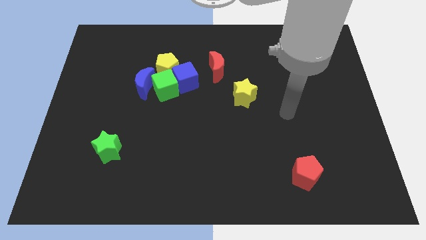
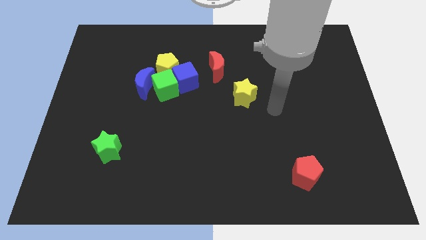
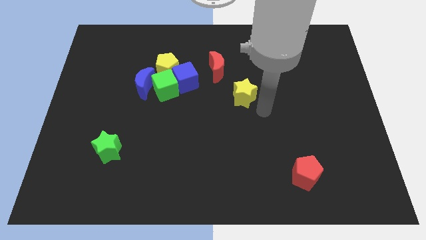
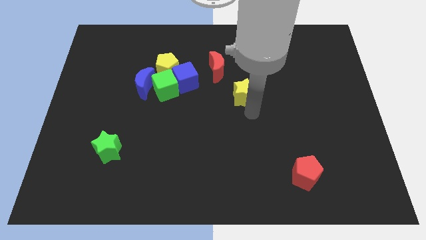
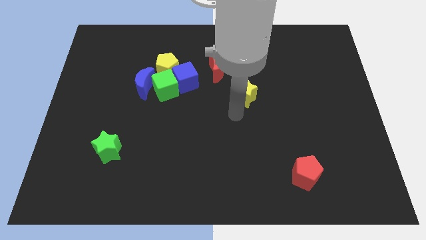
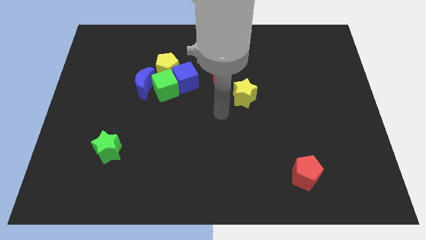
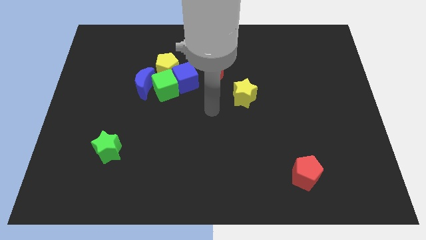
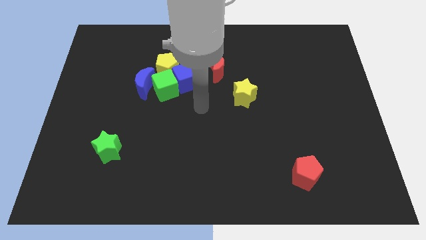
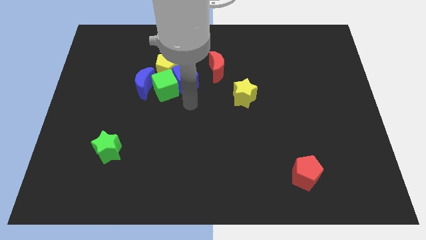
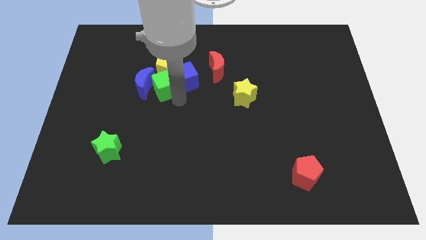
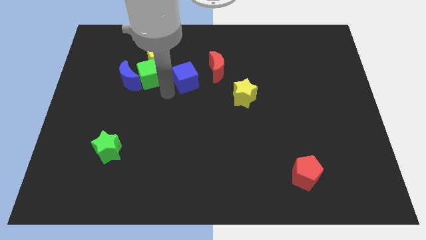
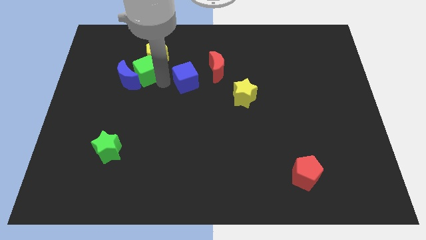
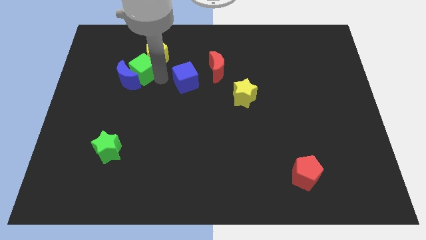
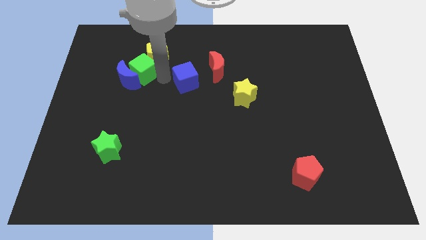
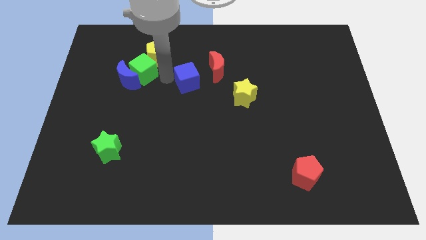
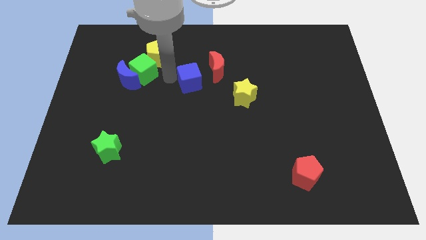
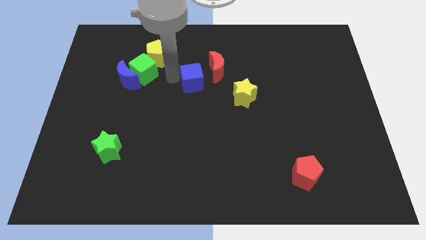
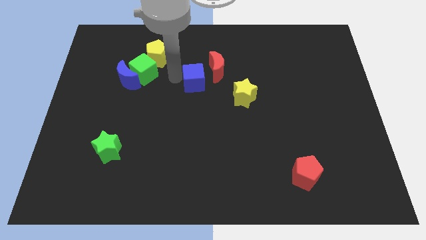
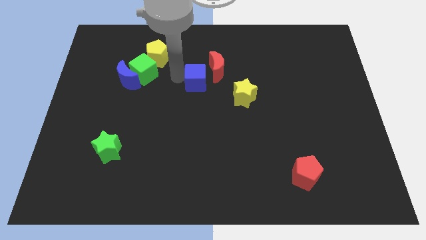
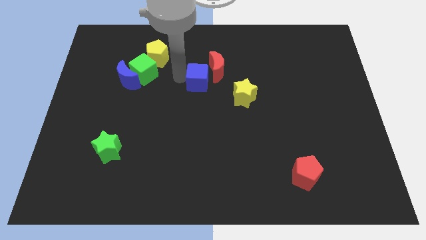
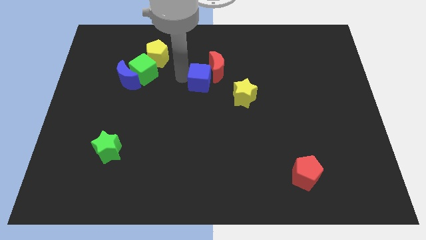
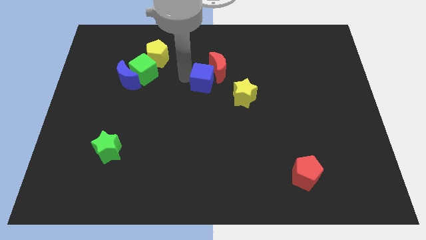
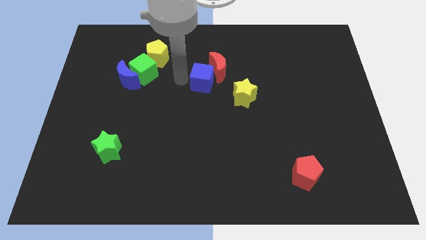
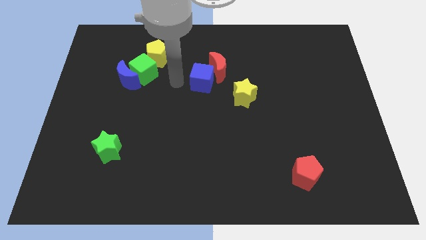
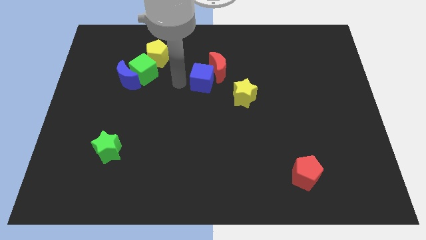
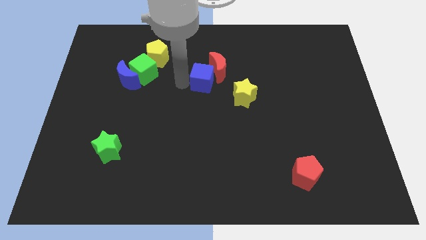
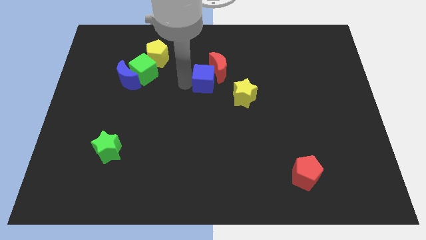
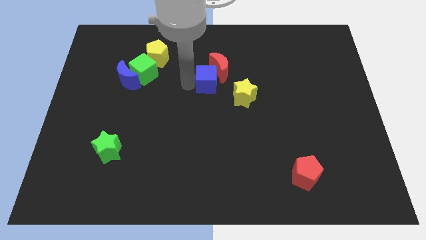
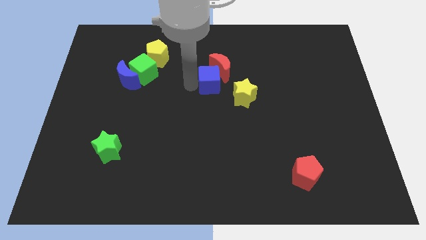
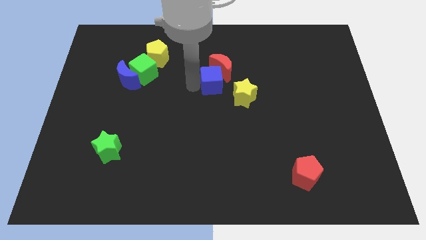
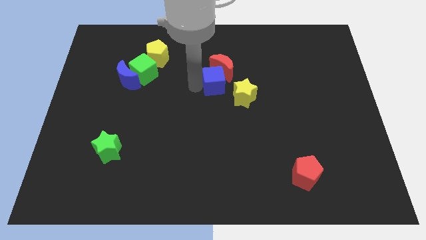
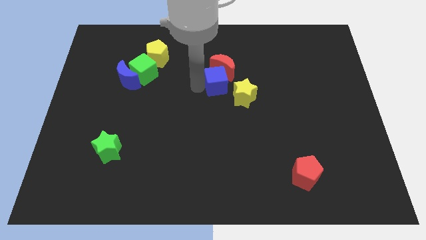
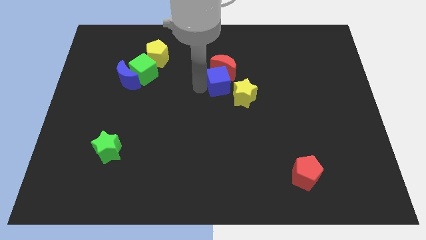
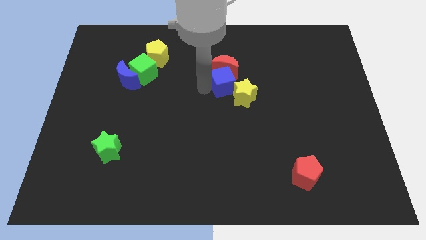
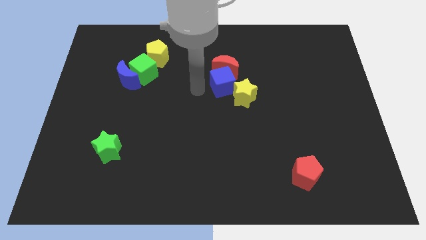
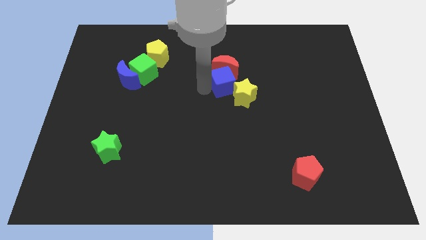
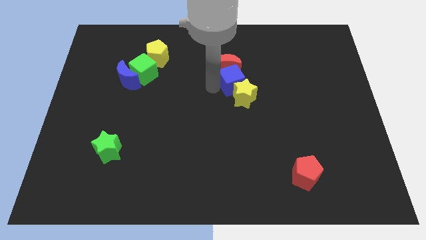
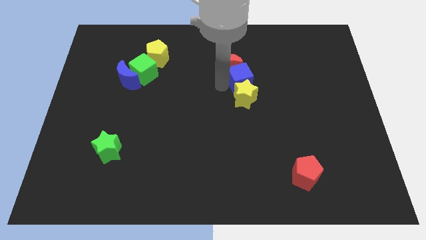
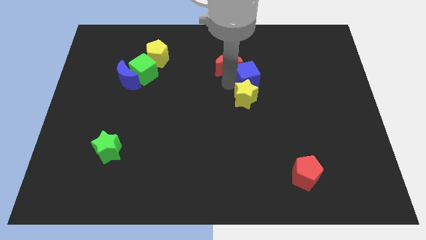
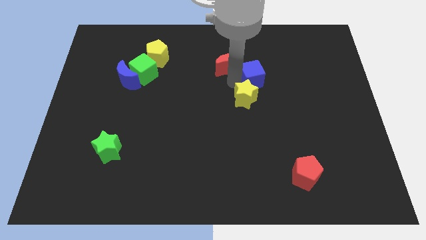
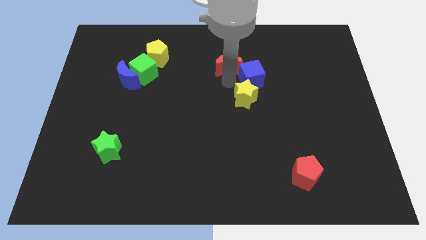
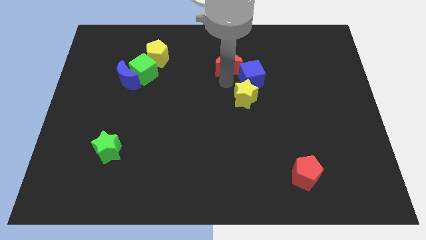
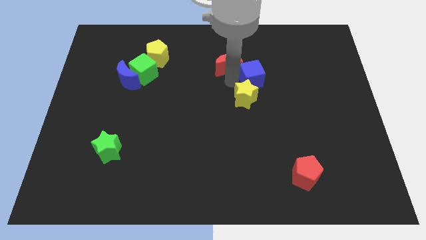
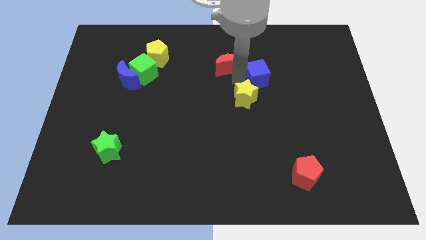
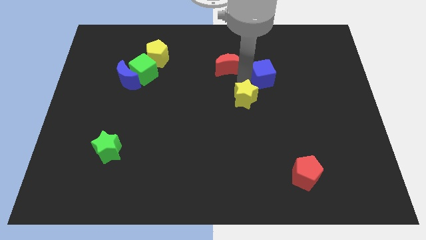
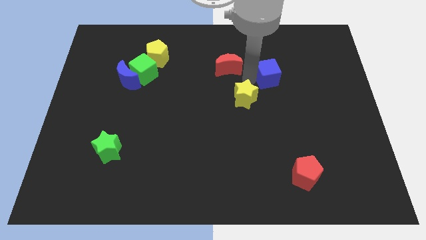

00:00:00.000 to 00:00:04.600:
move the blue cube to the right

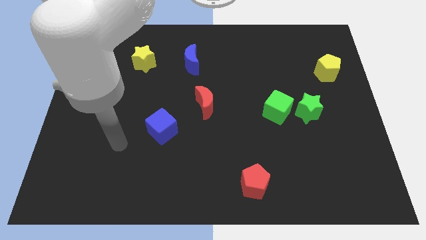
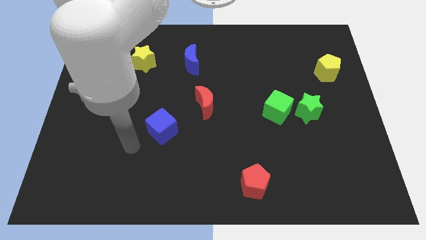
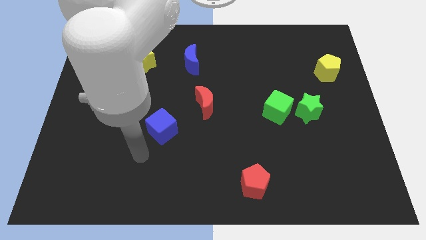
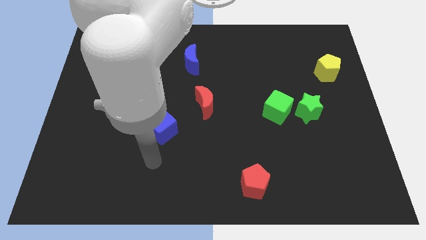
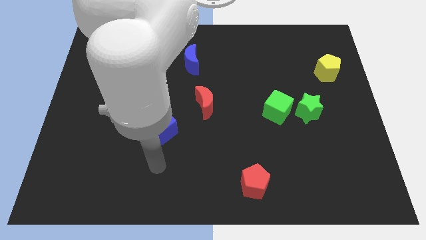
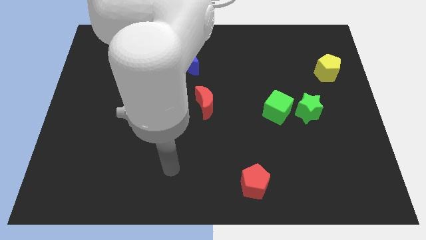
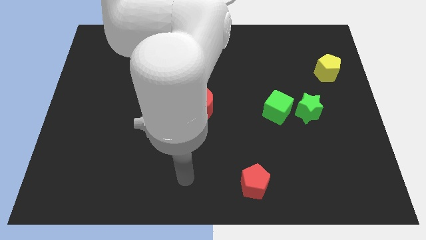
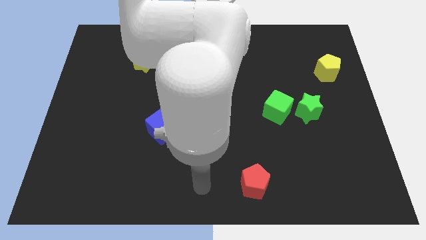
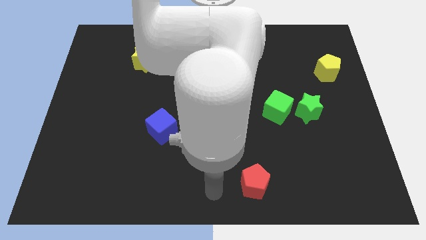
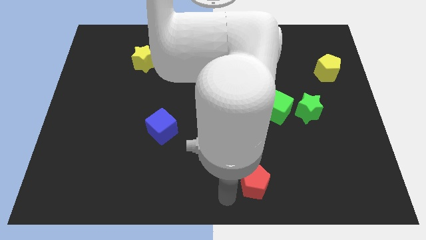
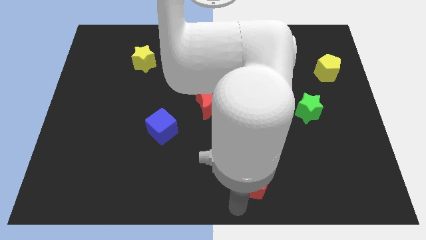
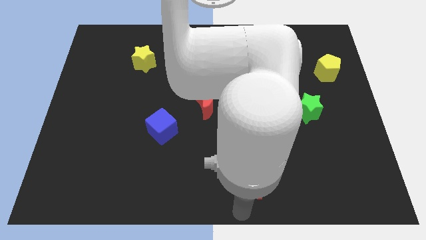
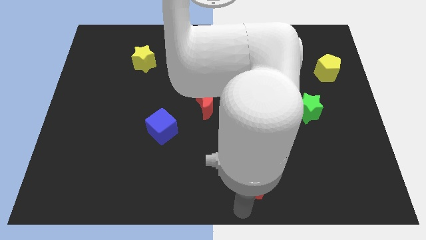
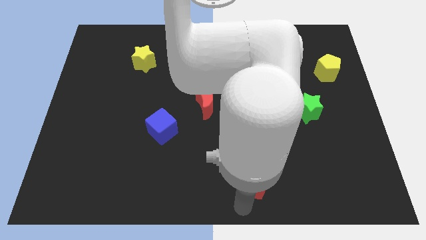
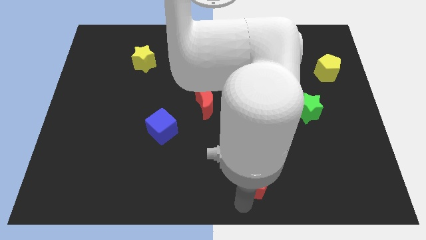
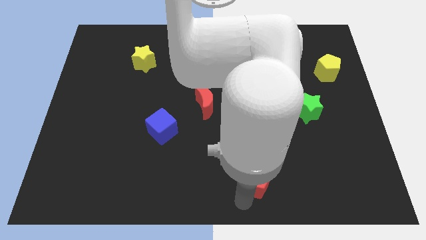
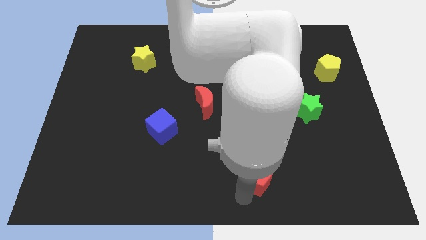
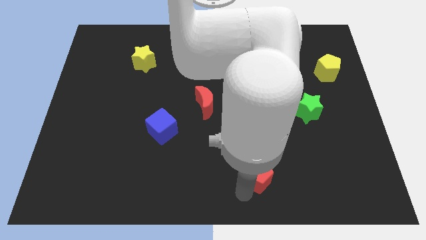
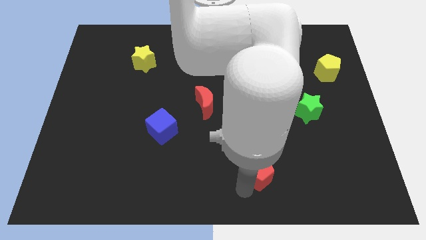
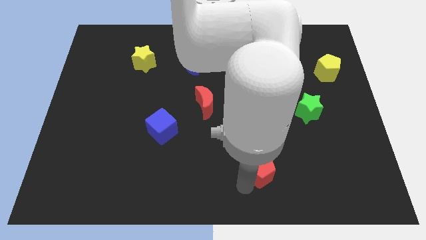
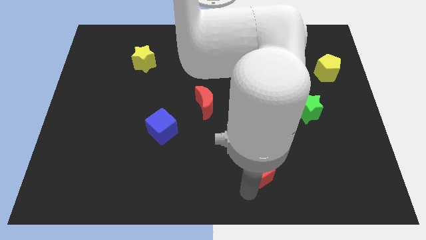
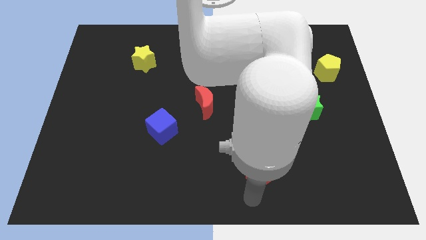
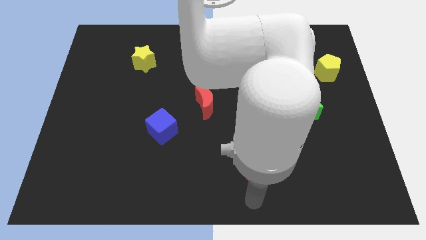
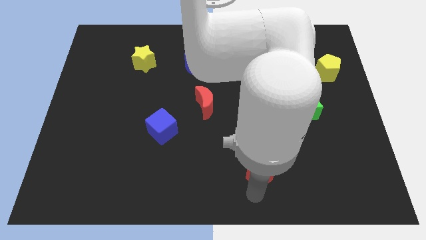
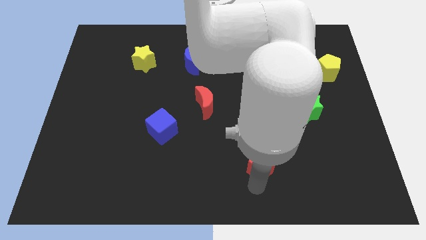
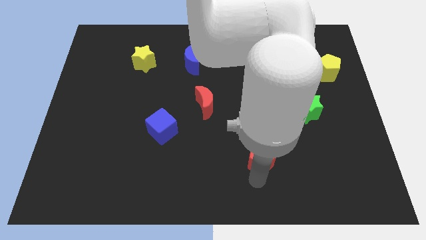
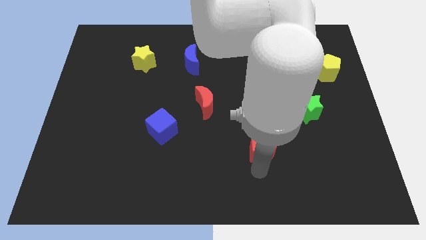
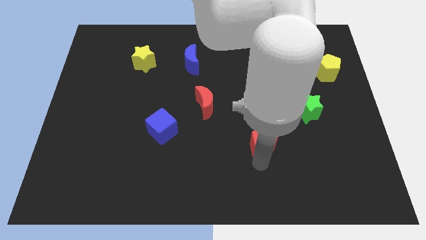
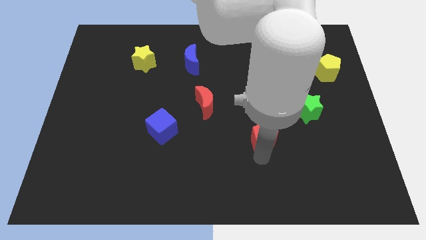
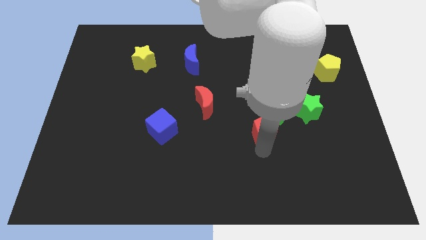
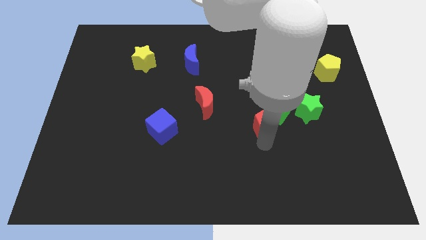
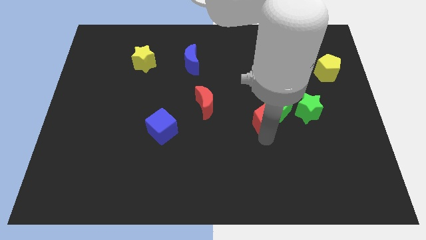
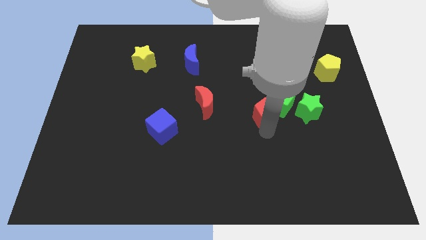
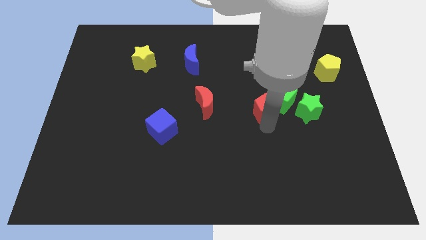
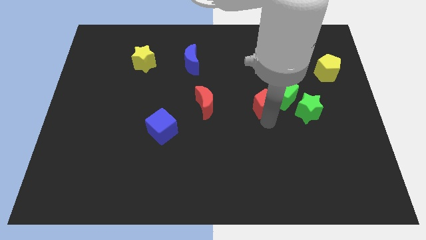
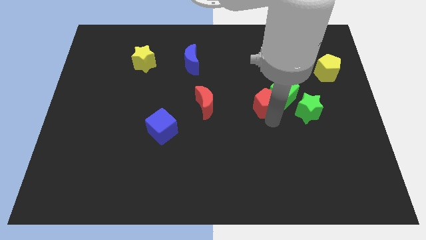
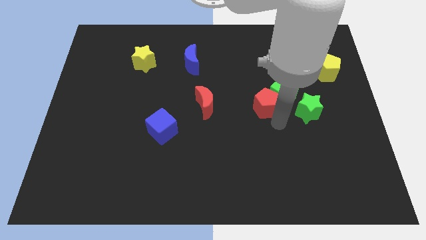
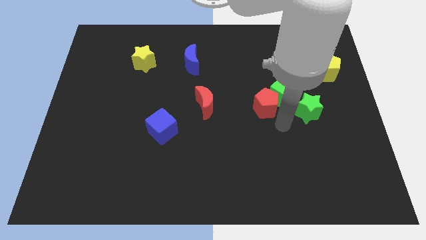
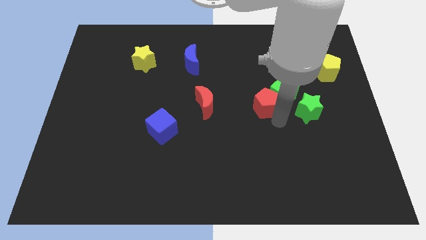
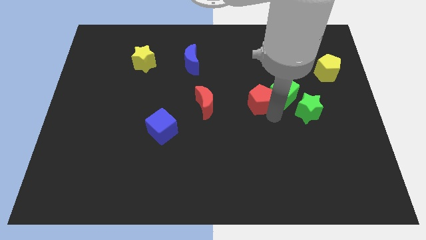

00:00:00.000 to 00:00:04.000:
push the red pentagon upwards

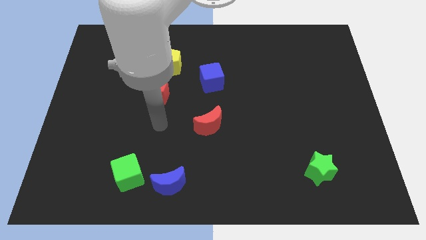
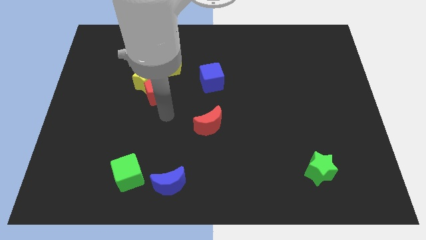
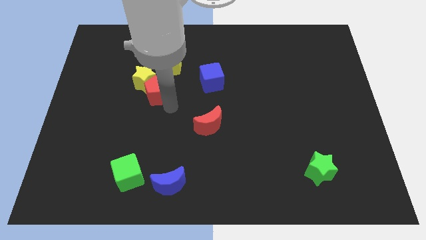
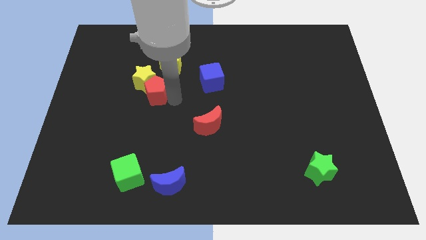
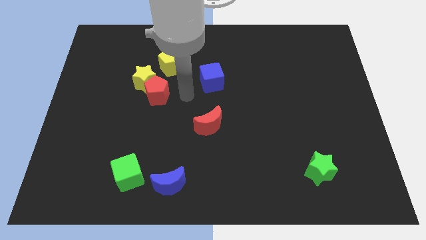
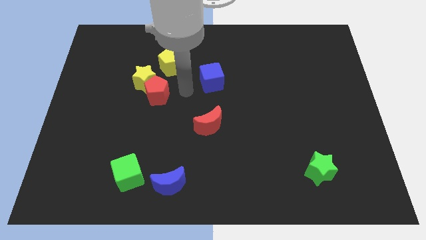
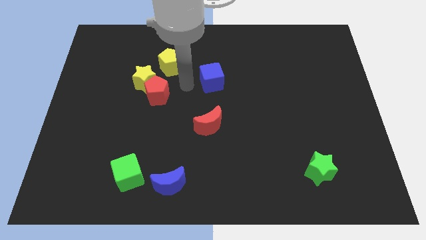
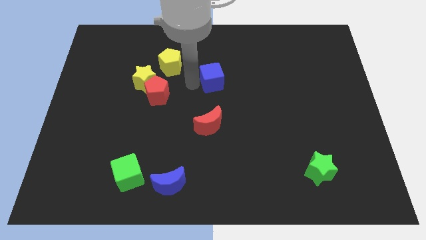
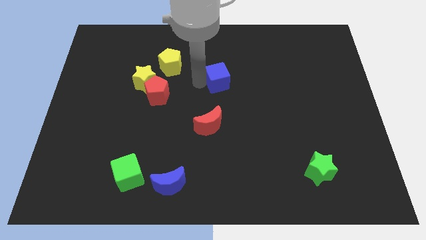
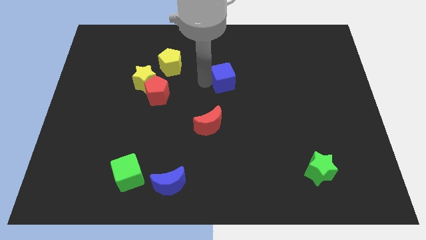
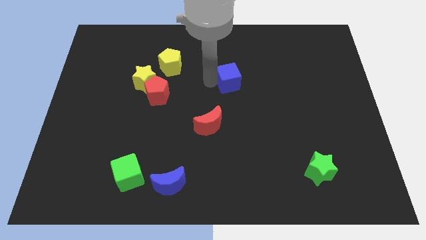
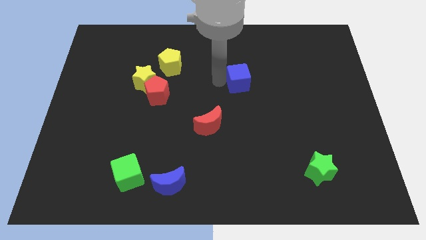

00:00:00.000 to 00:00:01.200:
move the blue cube to the right slightly
